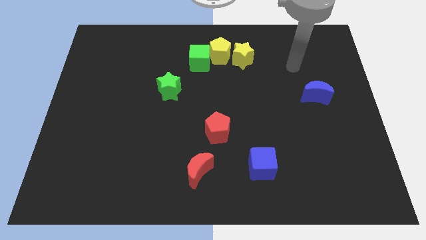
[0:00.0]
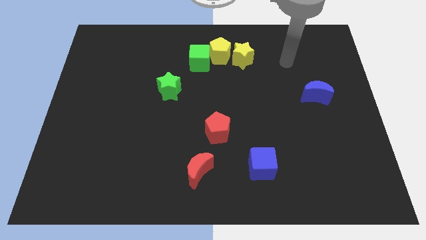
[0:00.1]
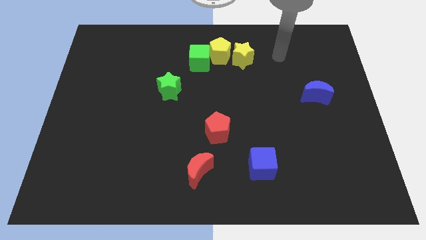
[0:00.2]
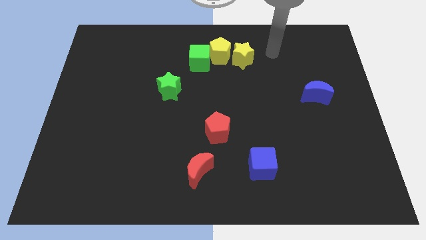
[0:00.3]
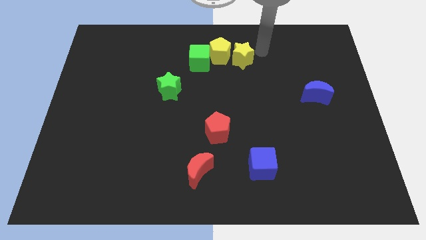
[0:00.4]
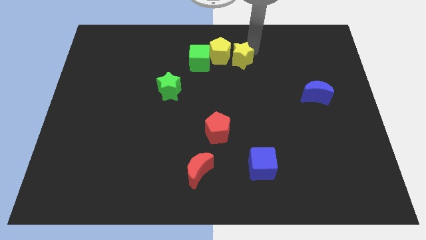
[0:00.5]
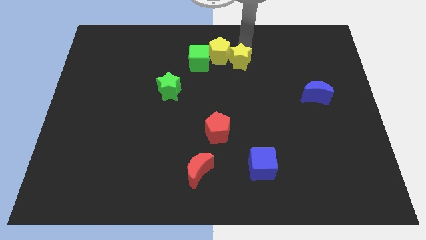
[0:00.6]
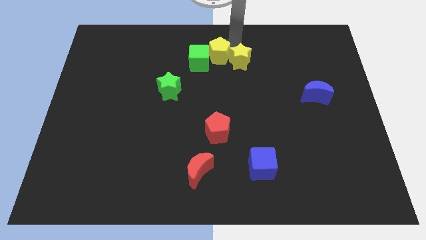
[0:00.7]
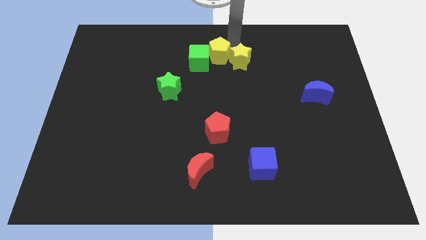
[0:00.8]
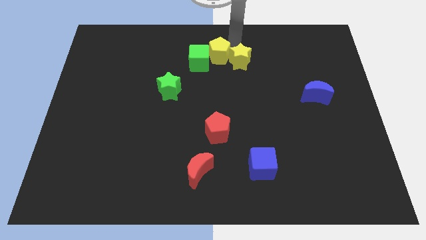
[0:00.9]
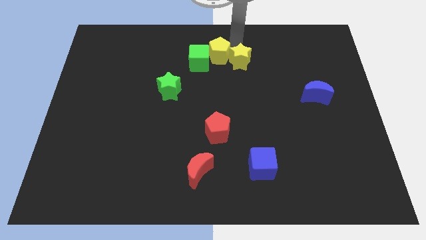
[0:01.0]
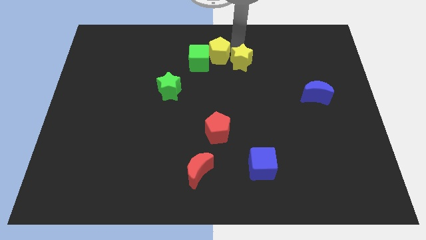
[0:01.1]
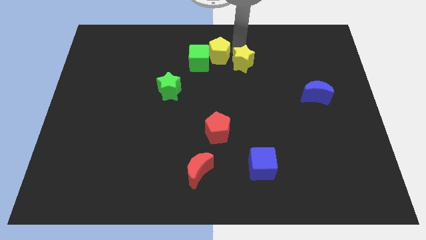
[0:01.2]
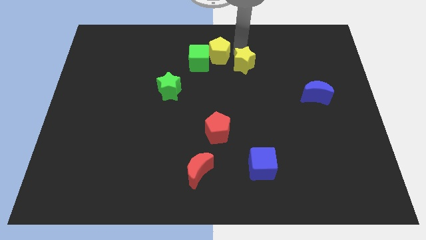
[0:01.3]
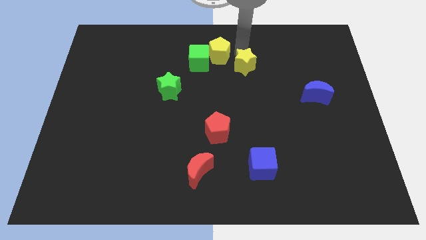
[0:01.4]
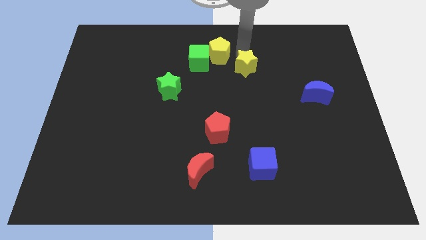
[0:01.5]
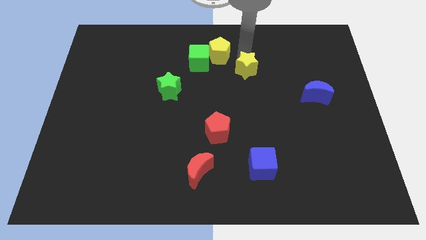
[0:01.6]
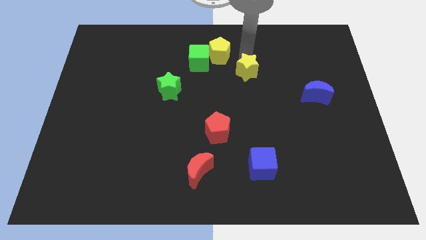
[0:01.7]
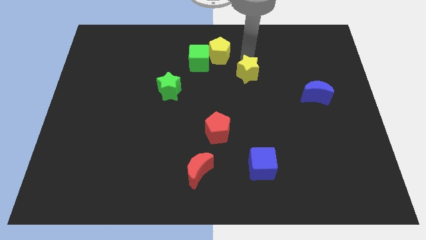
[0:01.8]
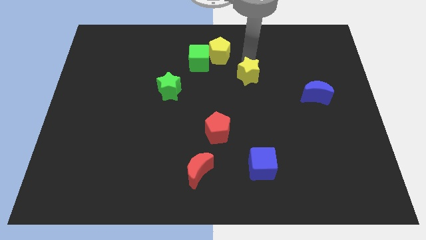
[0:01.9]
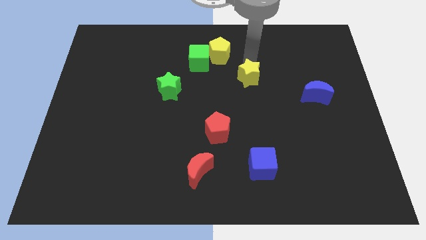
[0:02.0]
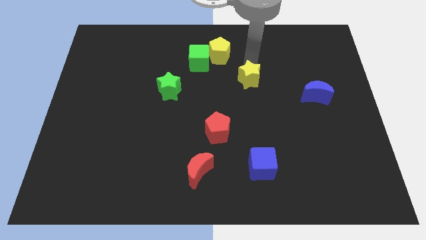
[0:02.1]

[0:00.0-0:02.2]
push the yellow star downwards a little bit

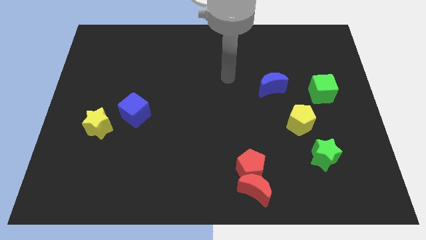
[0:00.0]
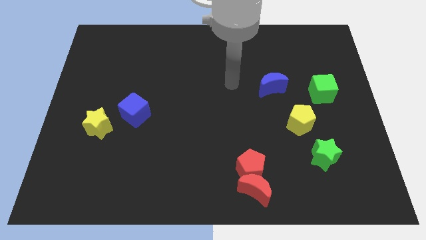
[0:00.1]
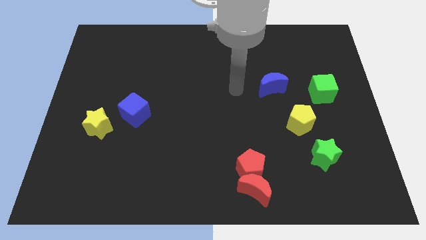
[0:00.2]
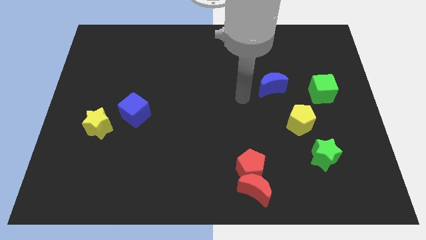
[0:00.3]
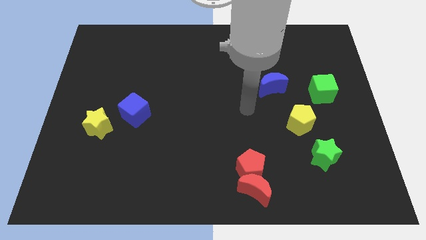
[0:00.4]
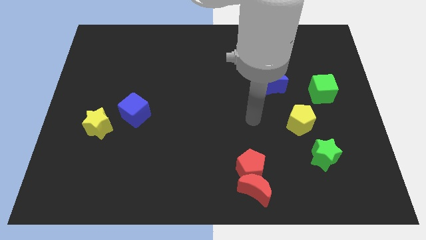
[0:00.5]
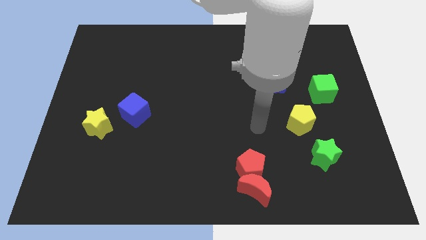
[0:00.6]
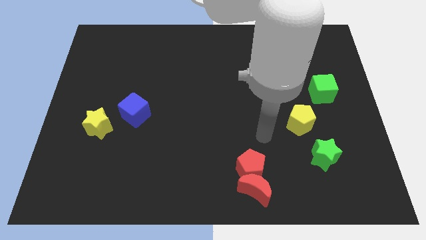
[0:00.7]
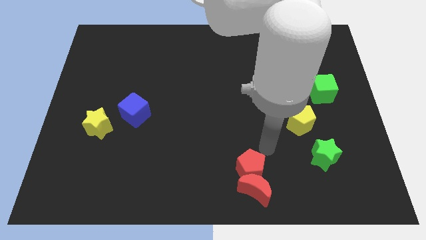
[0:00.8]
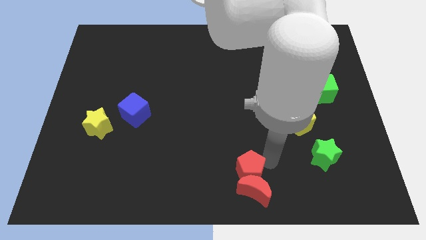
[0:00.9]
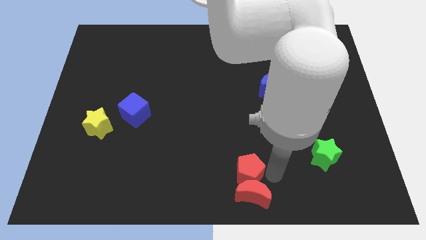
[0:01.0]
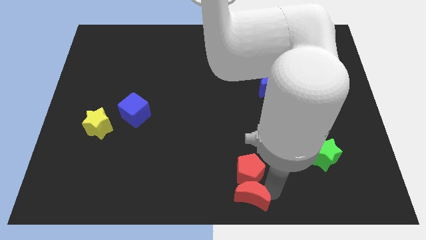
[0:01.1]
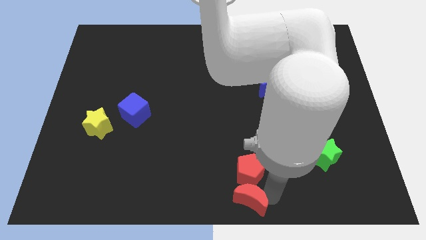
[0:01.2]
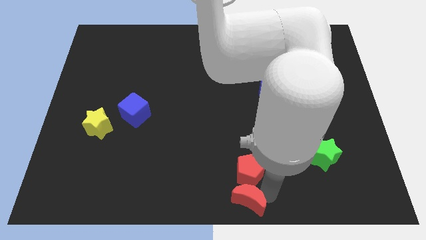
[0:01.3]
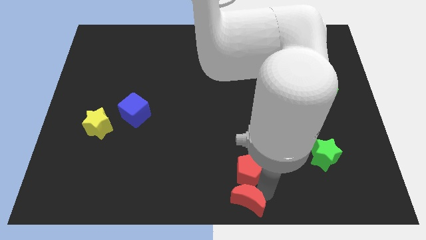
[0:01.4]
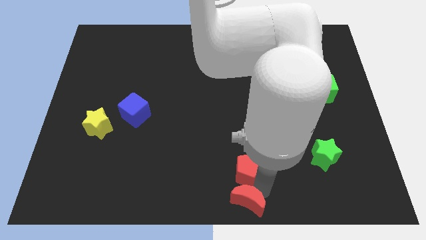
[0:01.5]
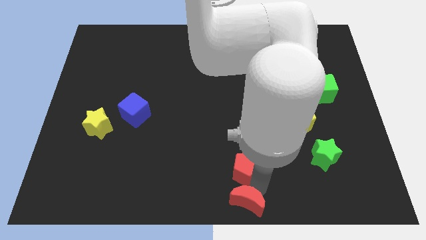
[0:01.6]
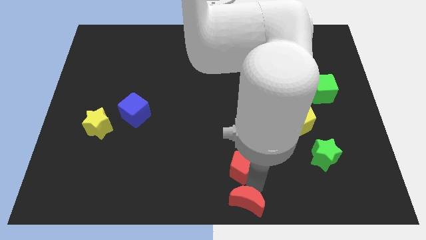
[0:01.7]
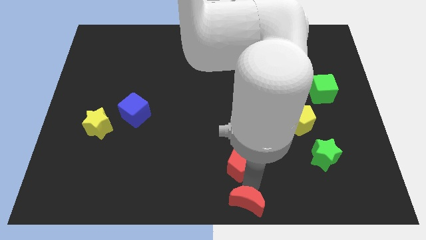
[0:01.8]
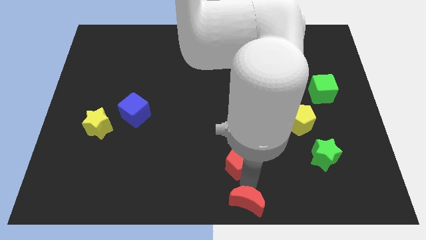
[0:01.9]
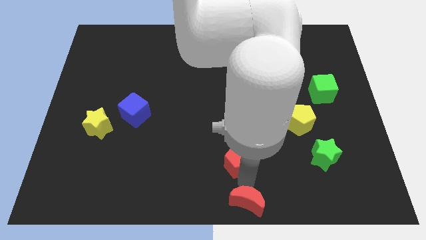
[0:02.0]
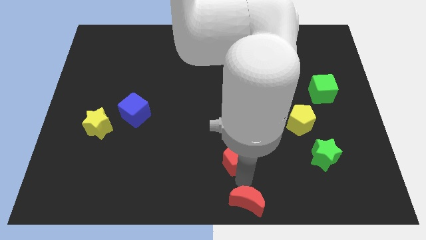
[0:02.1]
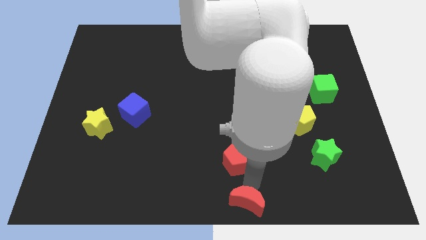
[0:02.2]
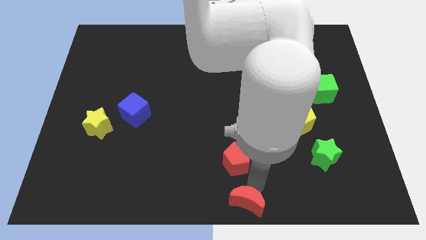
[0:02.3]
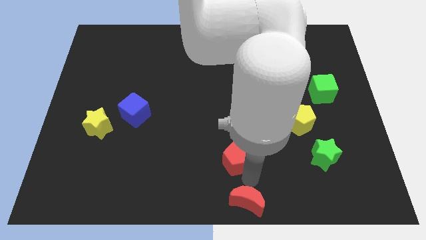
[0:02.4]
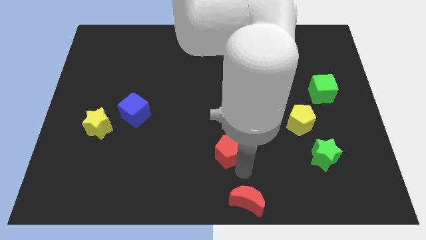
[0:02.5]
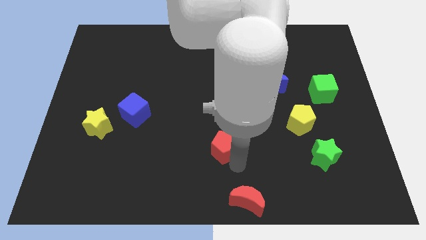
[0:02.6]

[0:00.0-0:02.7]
push the red pentagon slightly diagonally up and left

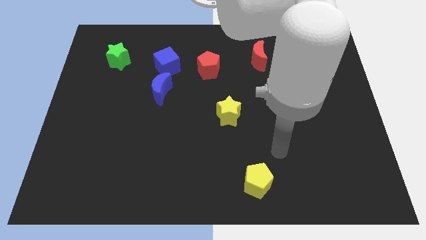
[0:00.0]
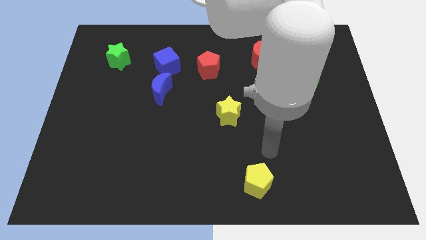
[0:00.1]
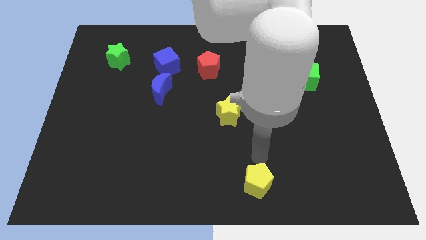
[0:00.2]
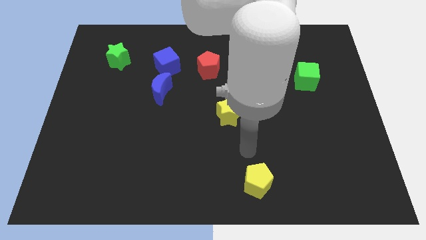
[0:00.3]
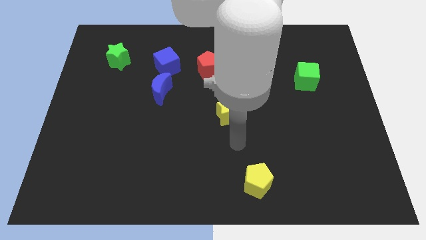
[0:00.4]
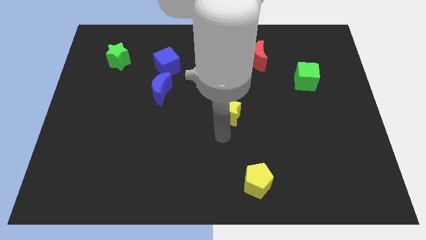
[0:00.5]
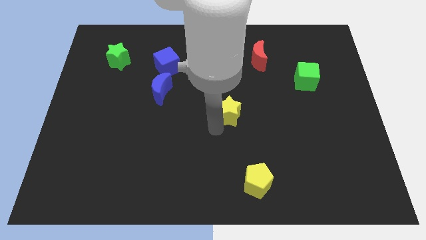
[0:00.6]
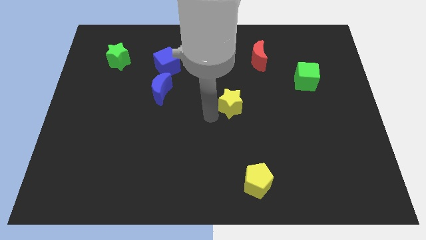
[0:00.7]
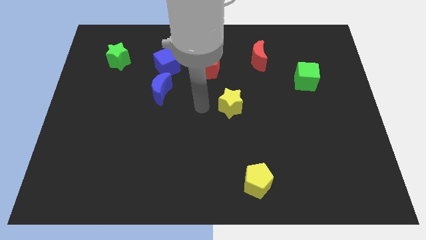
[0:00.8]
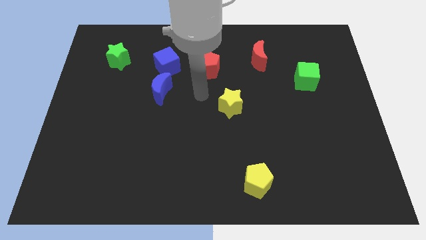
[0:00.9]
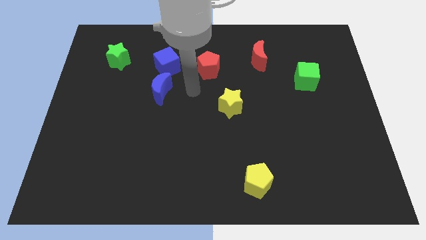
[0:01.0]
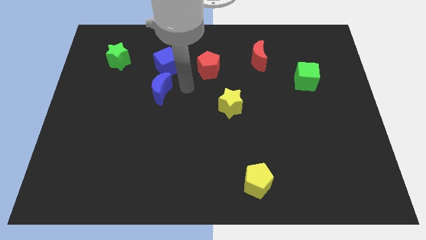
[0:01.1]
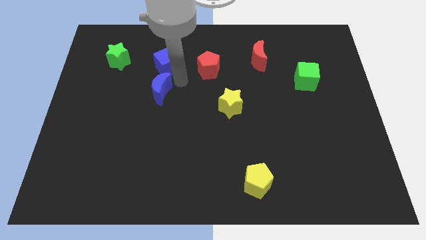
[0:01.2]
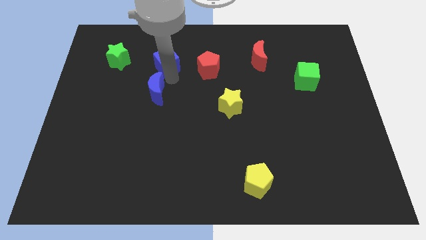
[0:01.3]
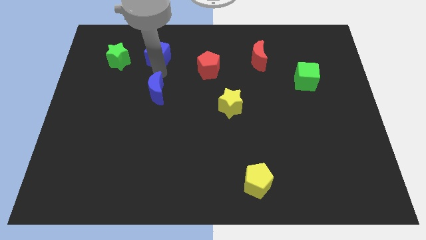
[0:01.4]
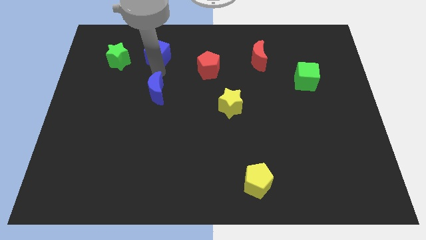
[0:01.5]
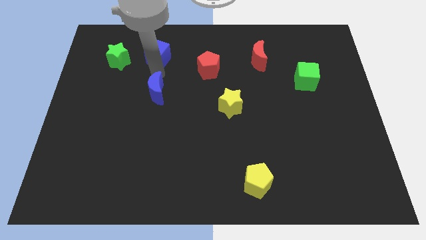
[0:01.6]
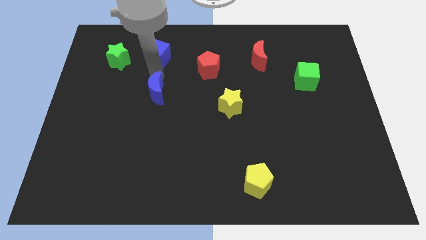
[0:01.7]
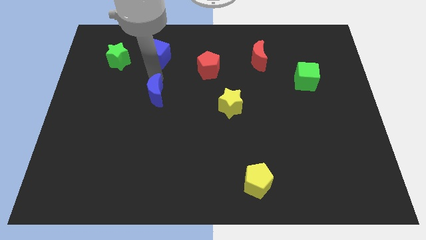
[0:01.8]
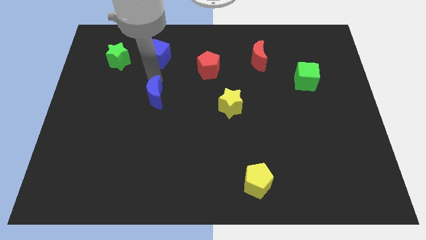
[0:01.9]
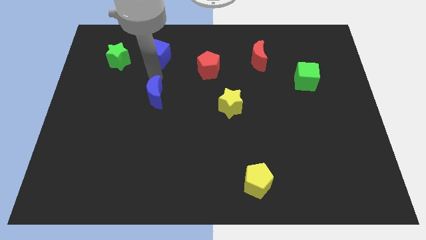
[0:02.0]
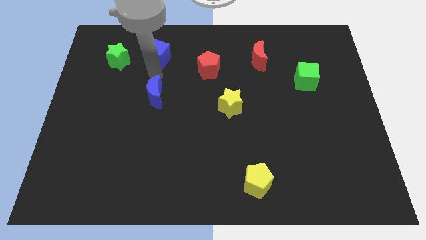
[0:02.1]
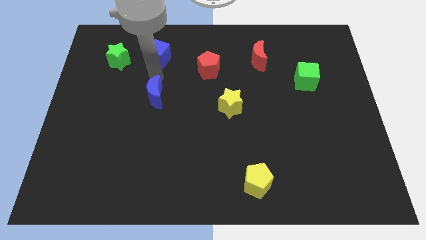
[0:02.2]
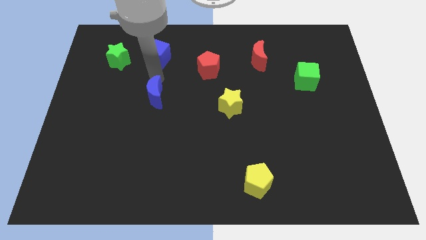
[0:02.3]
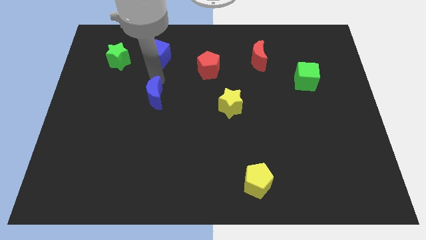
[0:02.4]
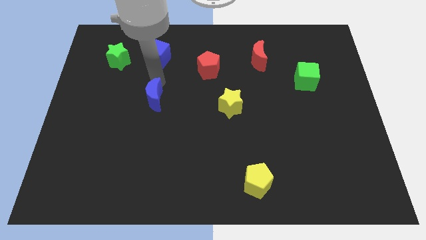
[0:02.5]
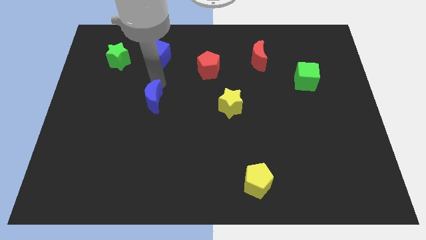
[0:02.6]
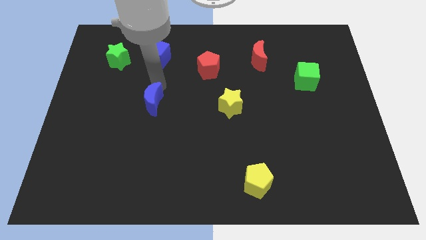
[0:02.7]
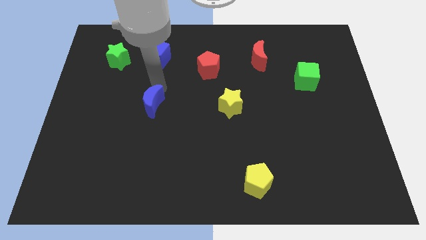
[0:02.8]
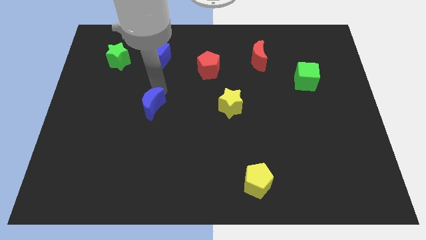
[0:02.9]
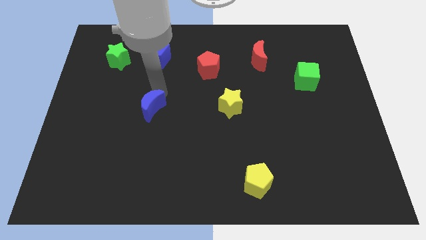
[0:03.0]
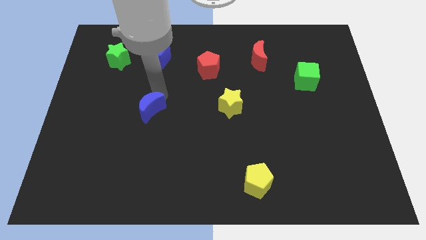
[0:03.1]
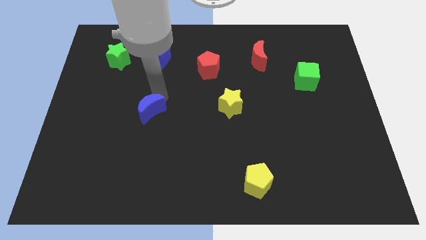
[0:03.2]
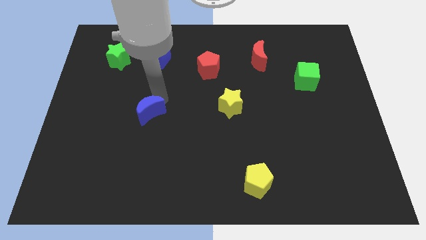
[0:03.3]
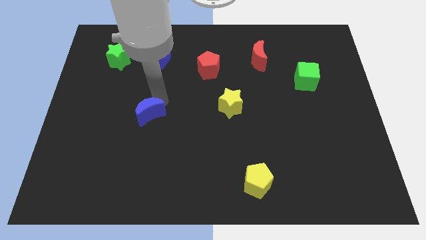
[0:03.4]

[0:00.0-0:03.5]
slightly push the blue moon down

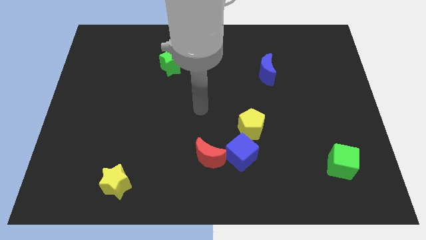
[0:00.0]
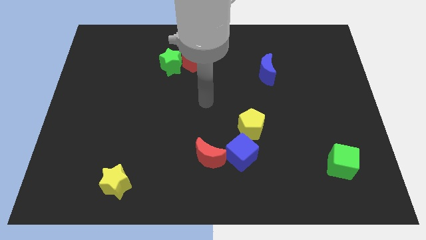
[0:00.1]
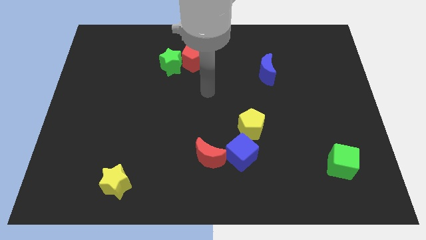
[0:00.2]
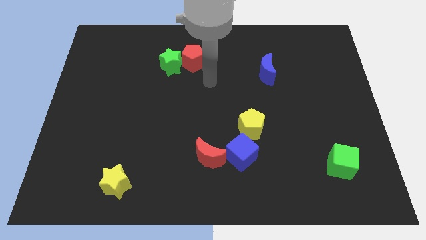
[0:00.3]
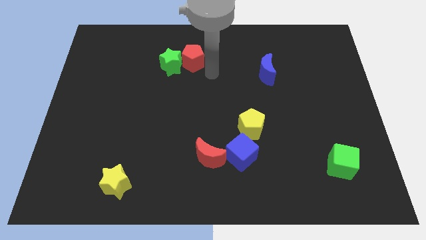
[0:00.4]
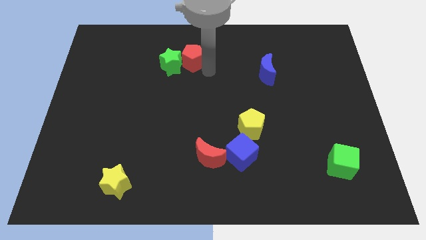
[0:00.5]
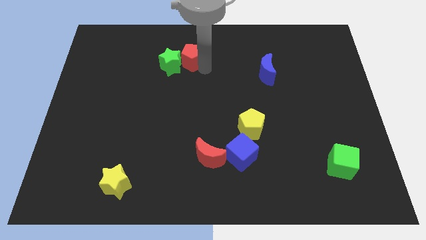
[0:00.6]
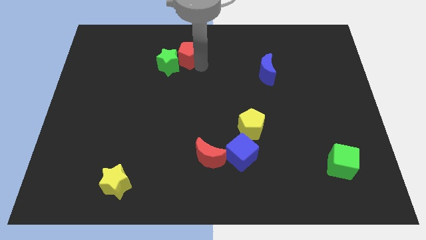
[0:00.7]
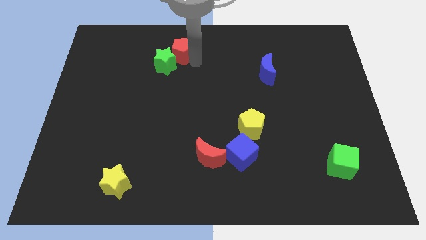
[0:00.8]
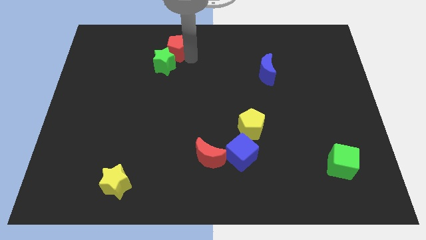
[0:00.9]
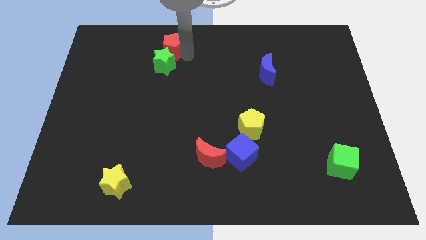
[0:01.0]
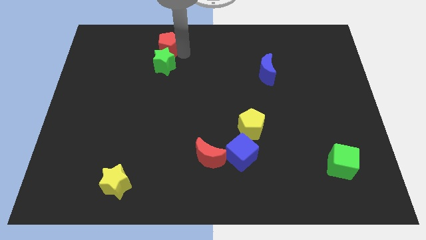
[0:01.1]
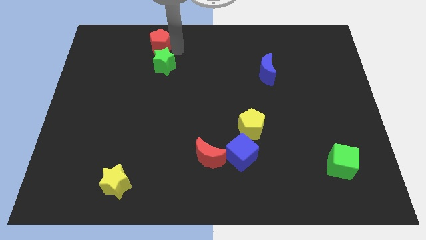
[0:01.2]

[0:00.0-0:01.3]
push the red pentagon left slightly
